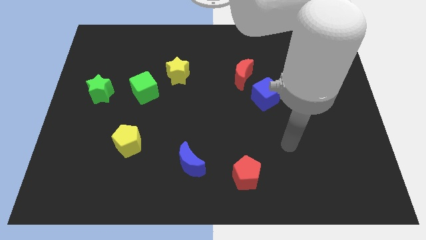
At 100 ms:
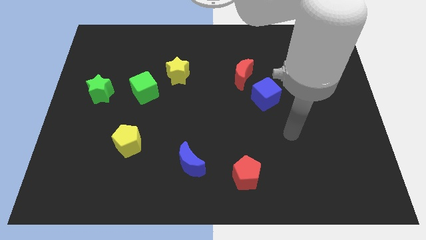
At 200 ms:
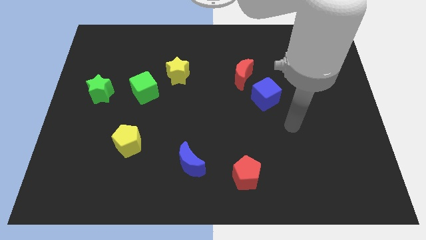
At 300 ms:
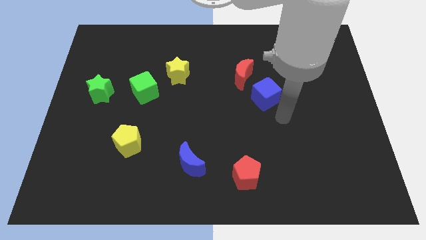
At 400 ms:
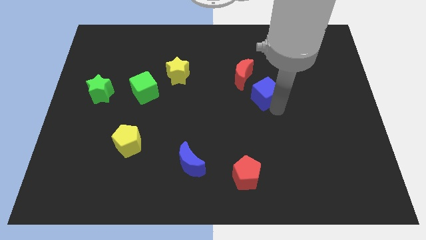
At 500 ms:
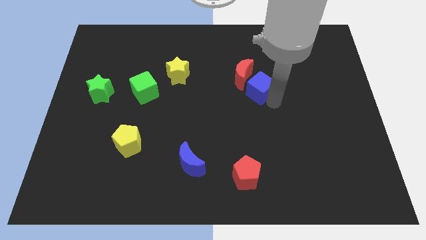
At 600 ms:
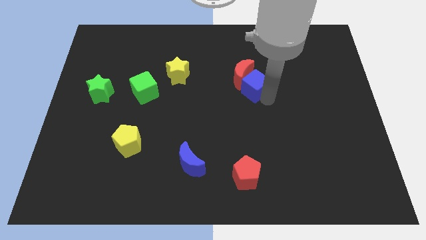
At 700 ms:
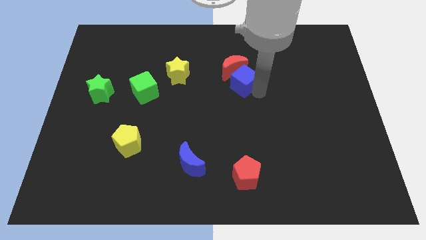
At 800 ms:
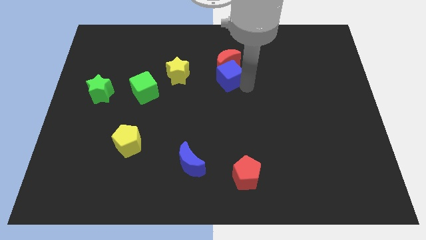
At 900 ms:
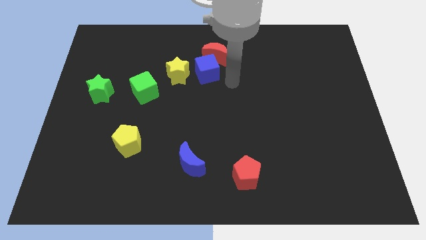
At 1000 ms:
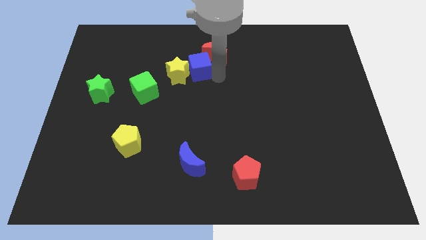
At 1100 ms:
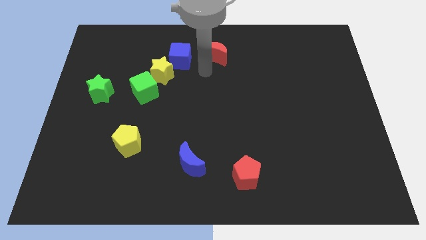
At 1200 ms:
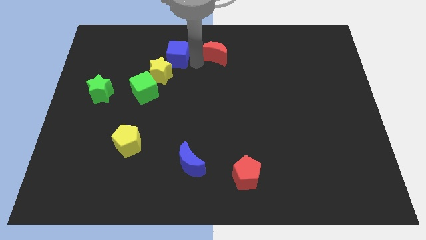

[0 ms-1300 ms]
move the red moon away from the blue cube

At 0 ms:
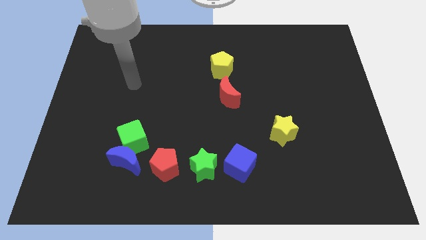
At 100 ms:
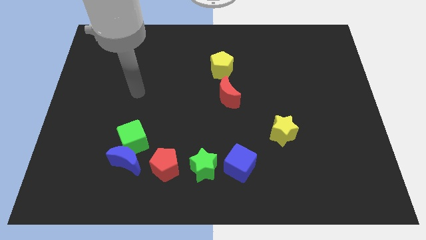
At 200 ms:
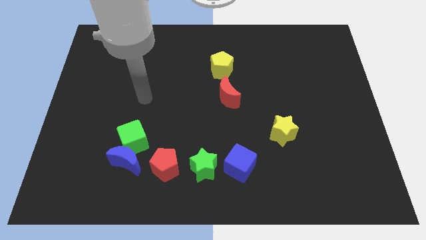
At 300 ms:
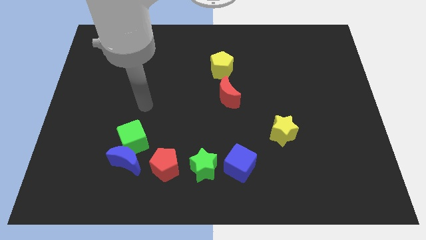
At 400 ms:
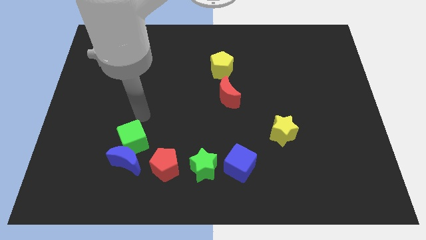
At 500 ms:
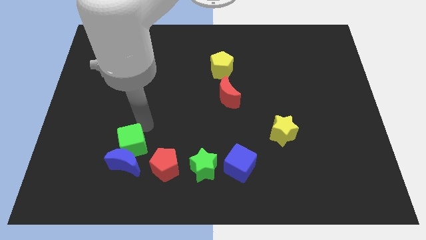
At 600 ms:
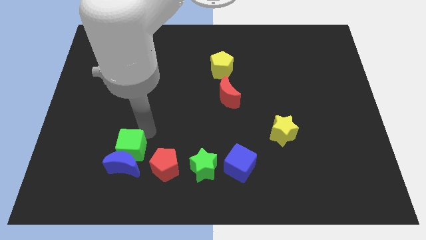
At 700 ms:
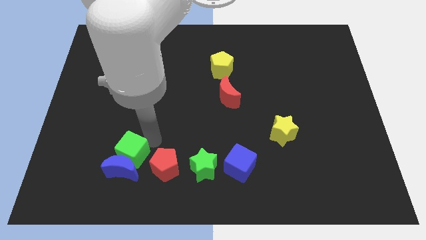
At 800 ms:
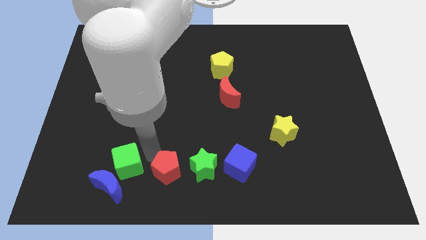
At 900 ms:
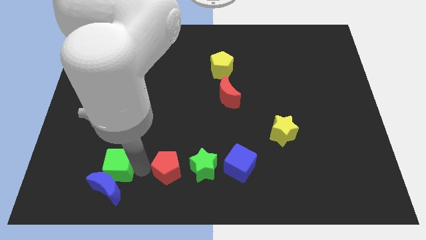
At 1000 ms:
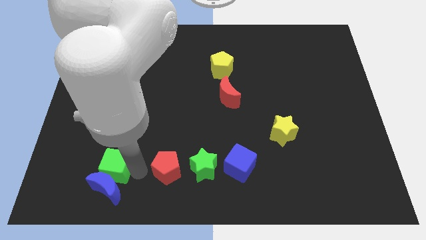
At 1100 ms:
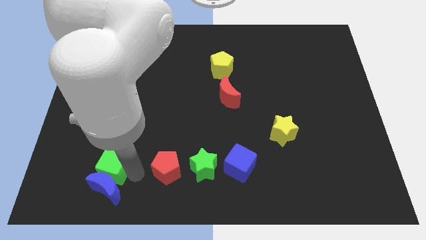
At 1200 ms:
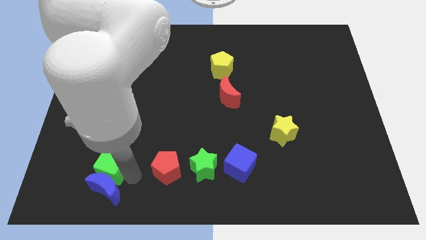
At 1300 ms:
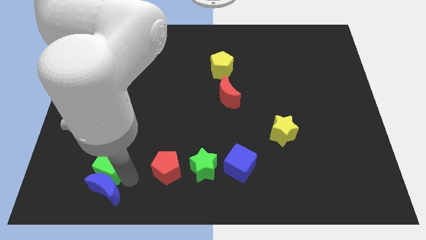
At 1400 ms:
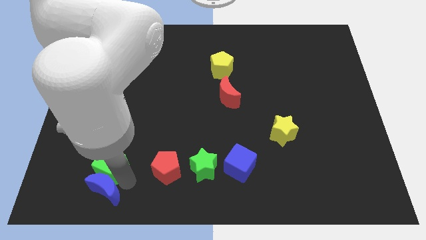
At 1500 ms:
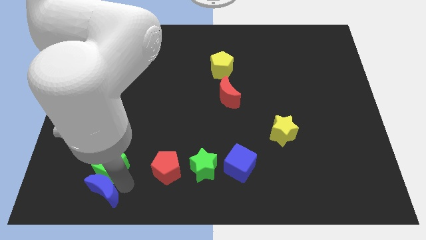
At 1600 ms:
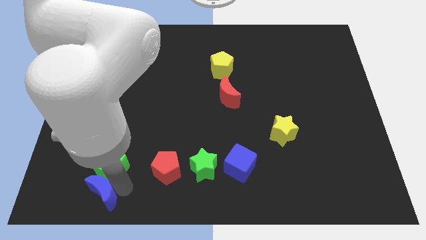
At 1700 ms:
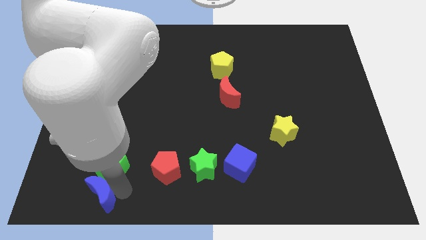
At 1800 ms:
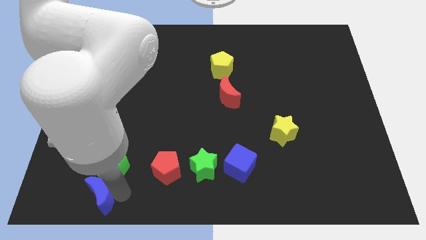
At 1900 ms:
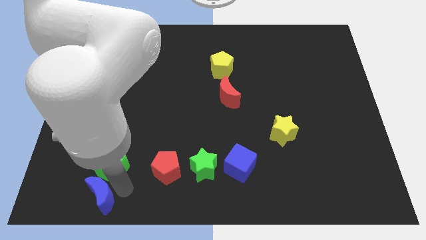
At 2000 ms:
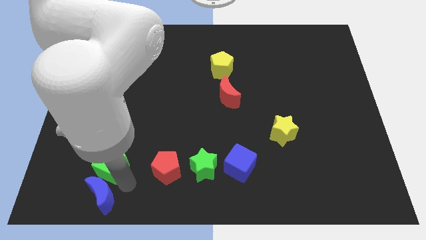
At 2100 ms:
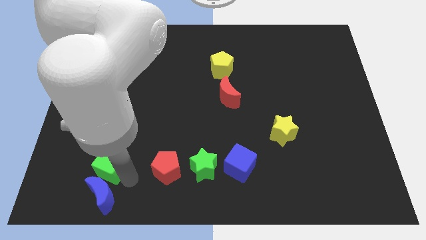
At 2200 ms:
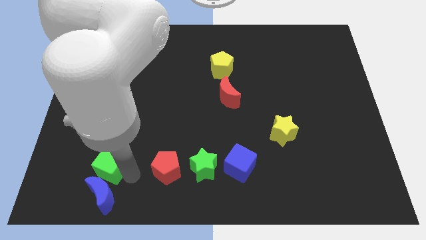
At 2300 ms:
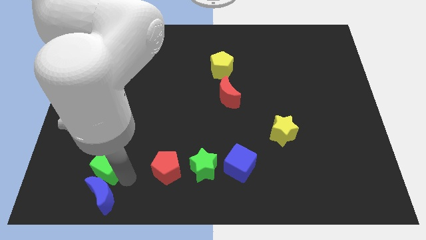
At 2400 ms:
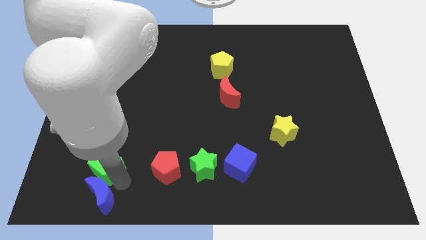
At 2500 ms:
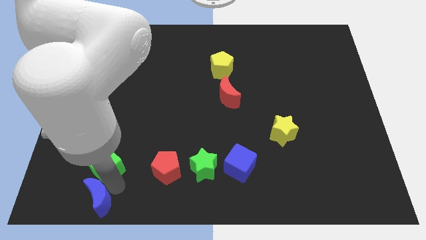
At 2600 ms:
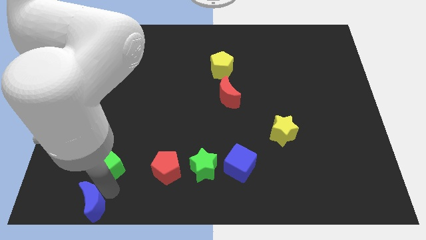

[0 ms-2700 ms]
separate the blue moon from the green cube and red pentagon

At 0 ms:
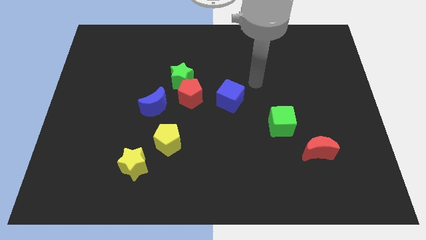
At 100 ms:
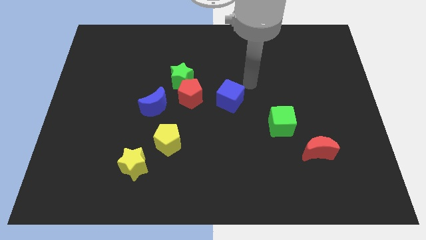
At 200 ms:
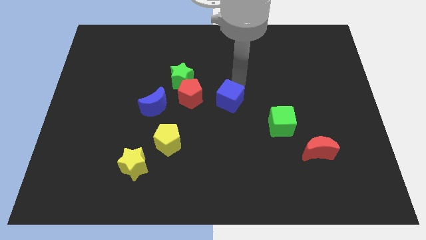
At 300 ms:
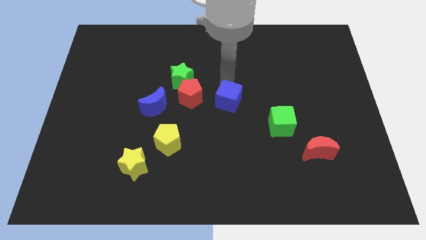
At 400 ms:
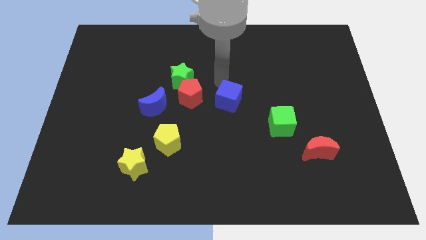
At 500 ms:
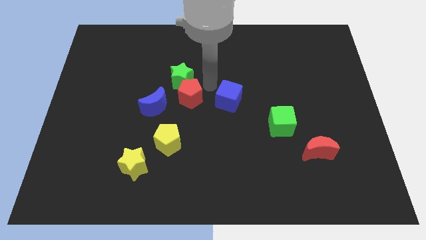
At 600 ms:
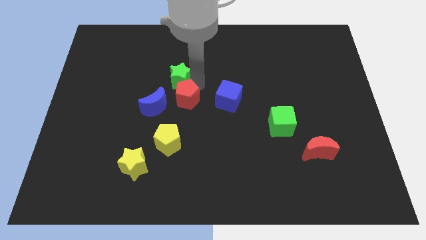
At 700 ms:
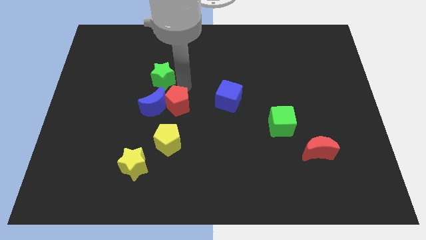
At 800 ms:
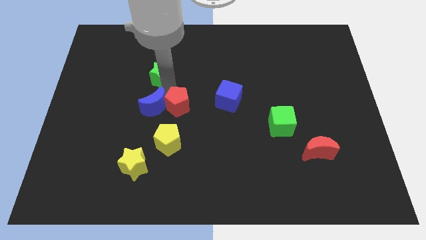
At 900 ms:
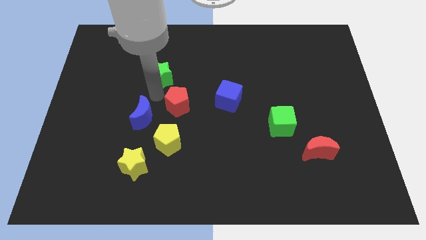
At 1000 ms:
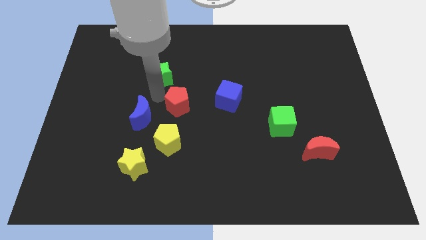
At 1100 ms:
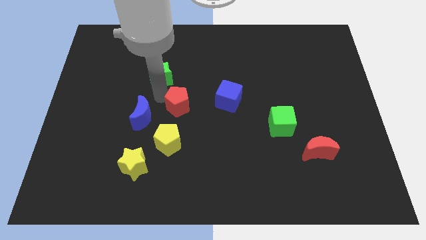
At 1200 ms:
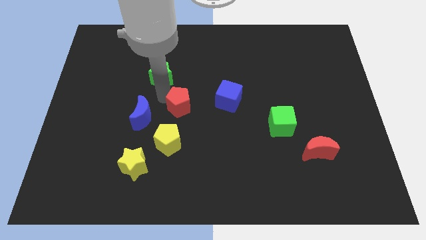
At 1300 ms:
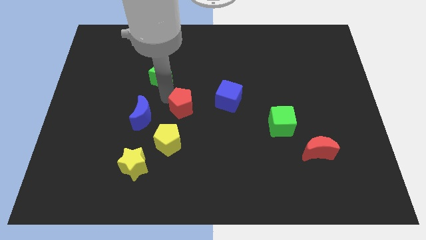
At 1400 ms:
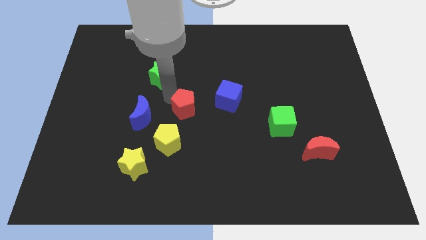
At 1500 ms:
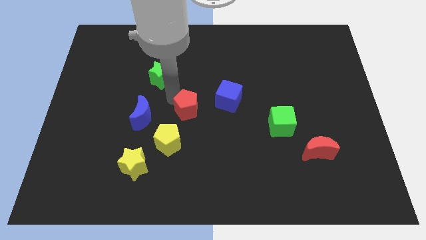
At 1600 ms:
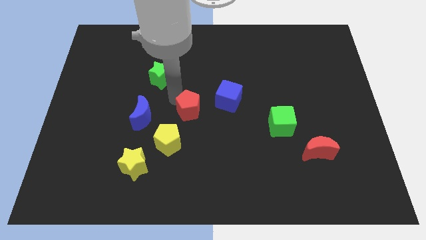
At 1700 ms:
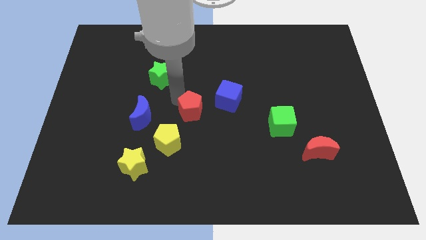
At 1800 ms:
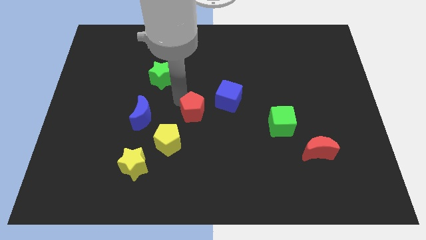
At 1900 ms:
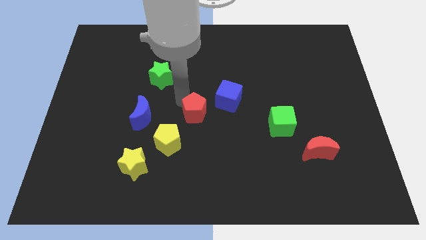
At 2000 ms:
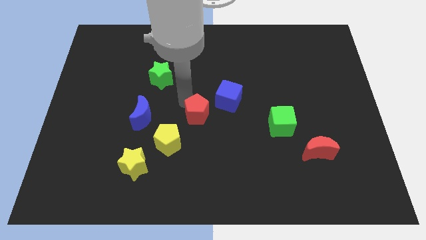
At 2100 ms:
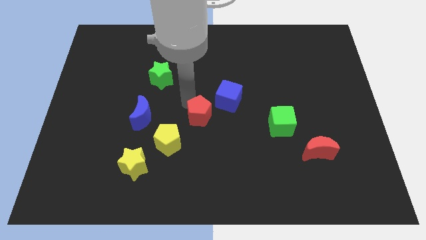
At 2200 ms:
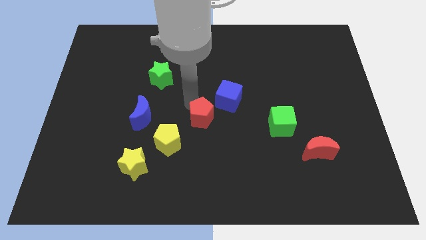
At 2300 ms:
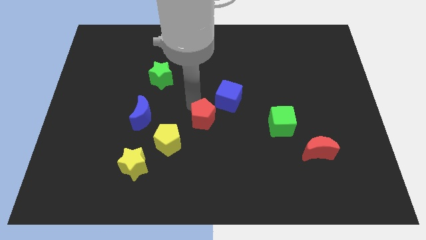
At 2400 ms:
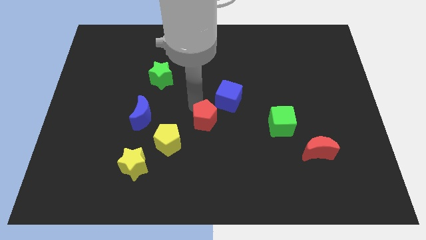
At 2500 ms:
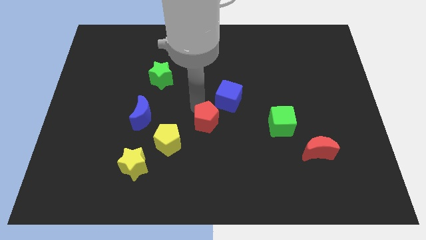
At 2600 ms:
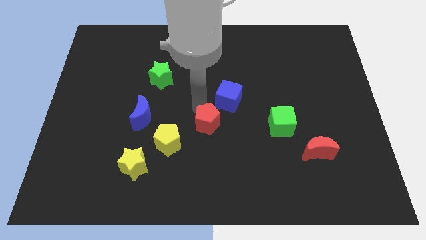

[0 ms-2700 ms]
pull the red pentagon apart from the group

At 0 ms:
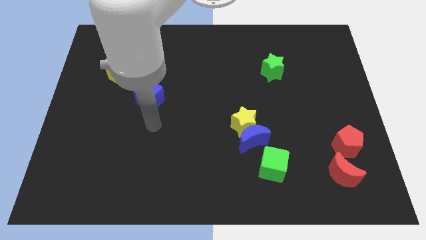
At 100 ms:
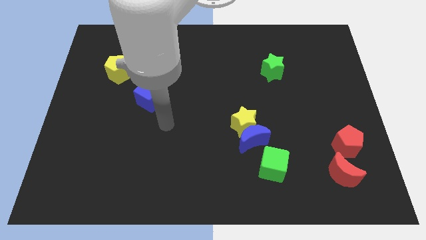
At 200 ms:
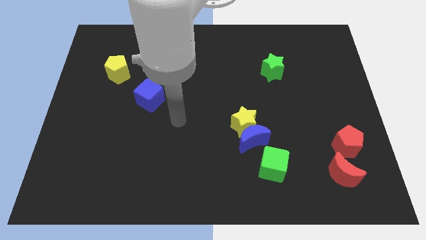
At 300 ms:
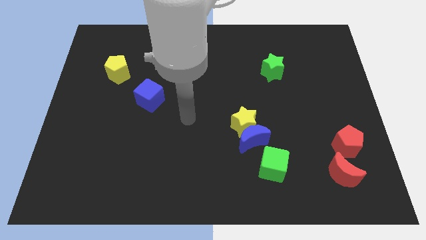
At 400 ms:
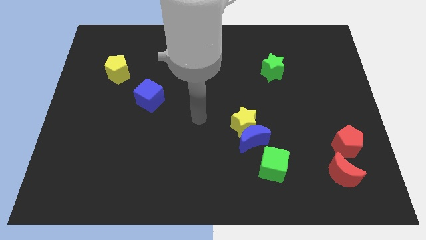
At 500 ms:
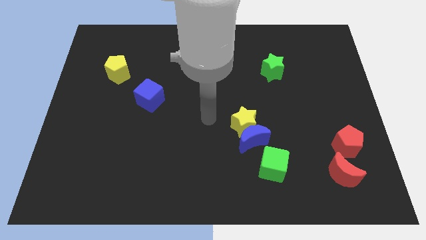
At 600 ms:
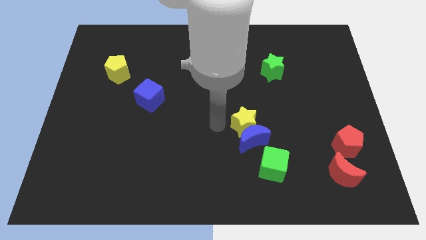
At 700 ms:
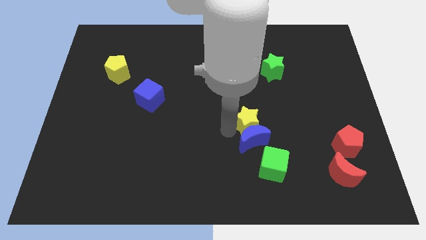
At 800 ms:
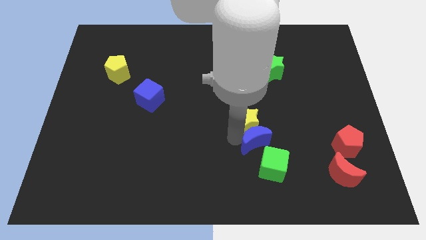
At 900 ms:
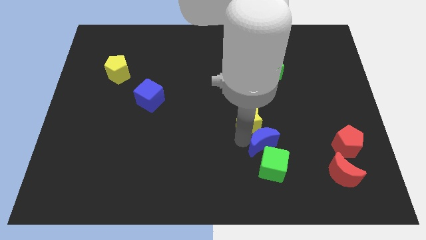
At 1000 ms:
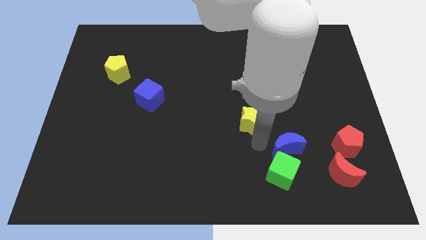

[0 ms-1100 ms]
pull the yellow star apart from the blue moon

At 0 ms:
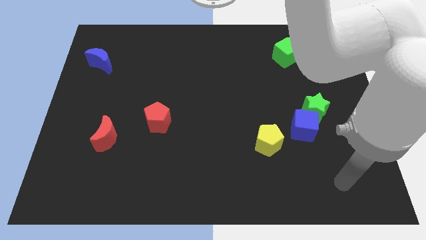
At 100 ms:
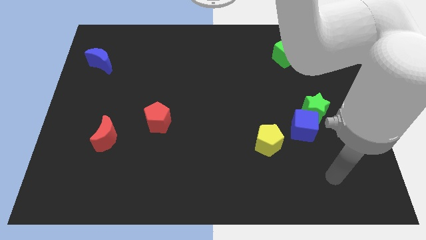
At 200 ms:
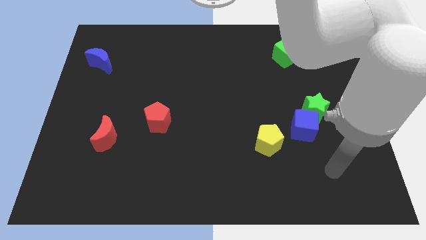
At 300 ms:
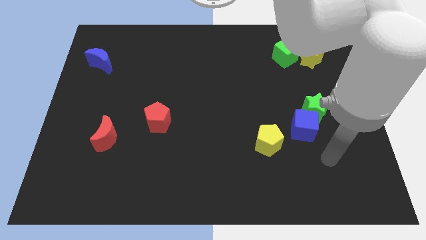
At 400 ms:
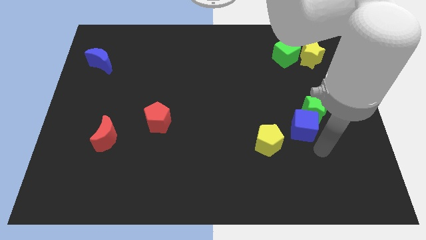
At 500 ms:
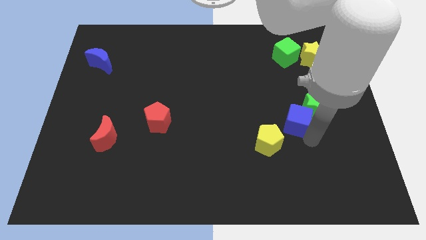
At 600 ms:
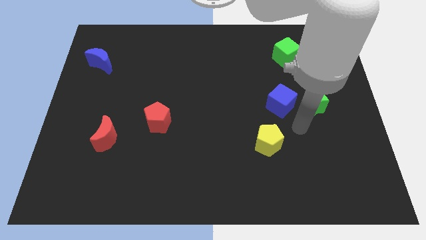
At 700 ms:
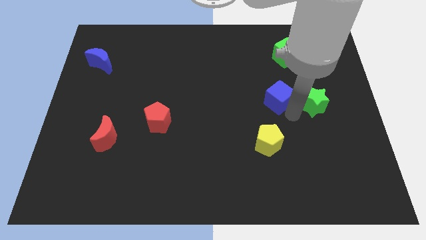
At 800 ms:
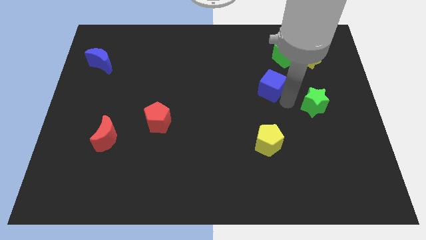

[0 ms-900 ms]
separate the green star from the blue cube

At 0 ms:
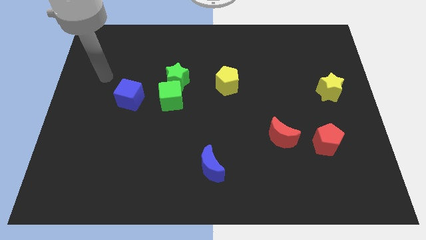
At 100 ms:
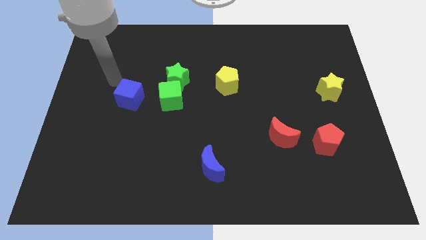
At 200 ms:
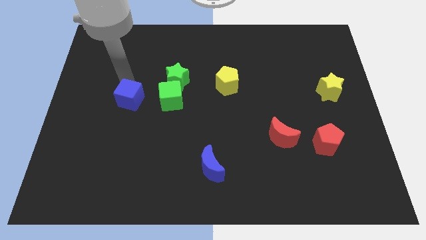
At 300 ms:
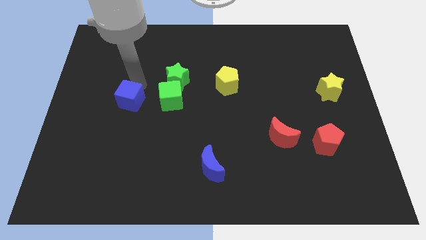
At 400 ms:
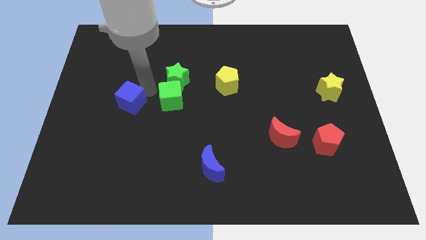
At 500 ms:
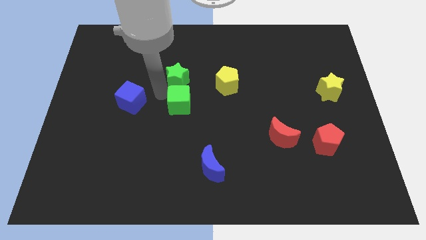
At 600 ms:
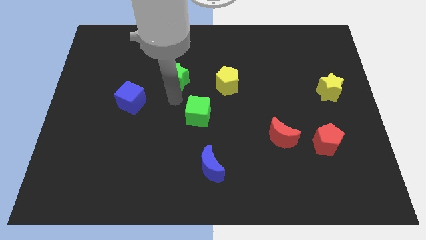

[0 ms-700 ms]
separate the green star from the green cube
